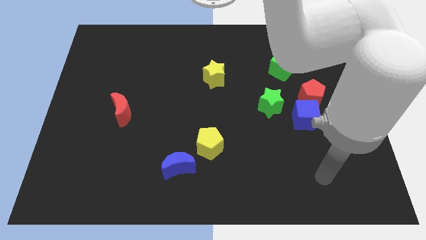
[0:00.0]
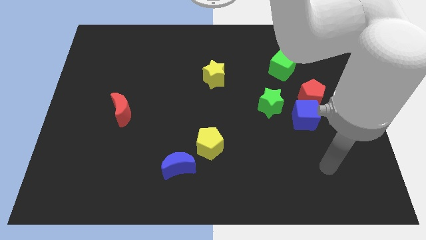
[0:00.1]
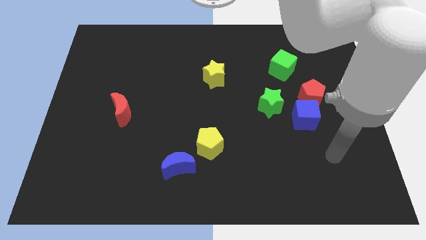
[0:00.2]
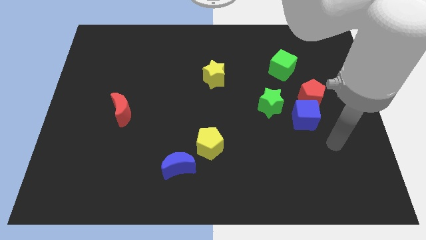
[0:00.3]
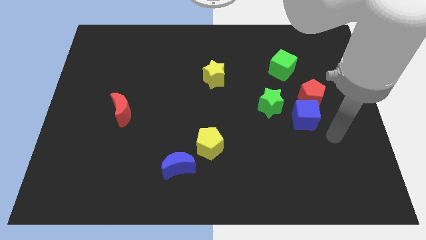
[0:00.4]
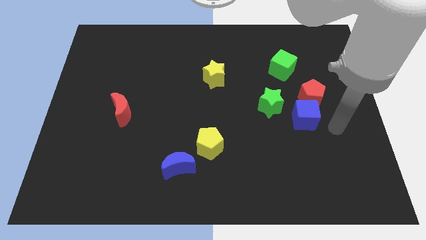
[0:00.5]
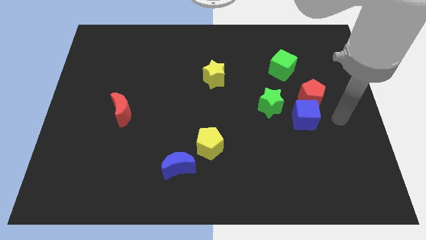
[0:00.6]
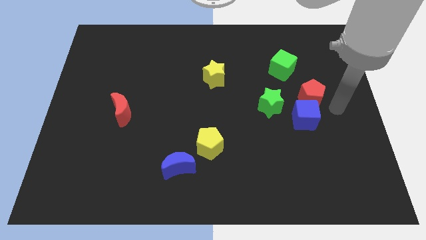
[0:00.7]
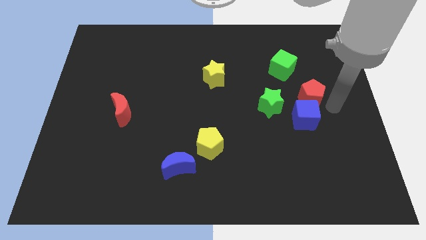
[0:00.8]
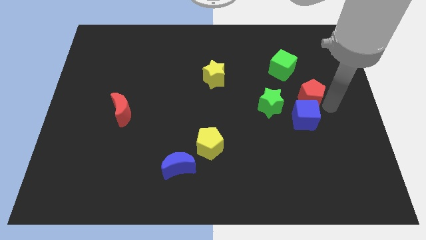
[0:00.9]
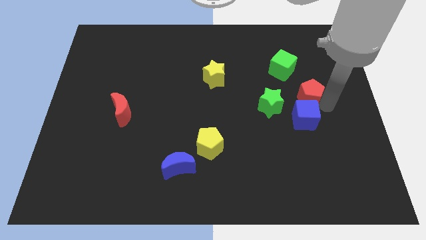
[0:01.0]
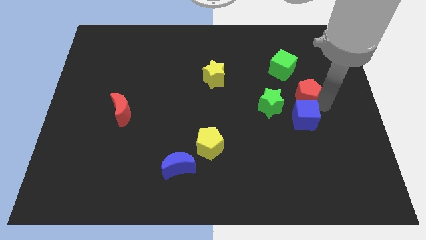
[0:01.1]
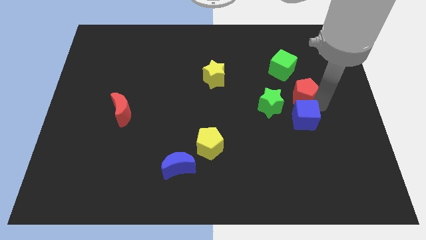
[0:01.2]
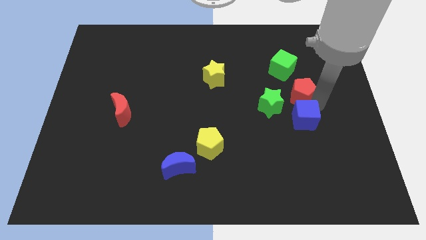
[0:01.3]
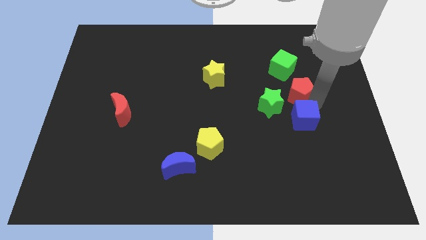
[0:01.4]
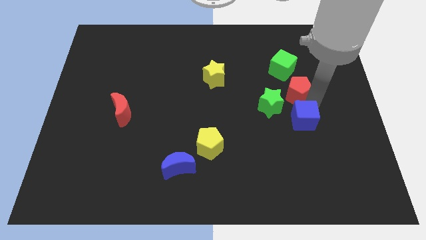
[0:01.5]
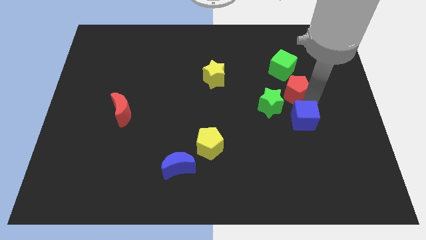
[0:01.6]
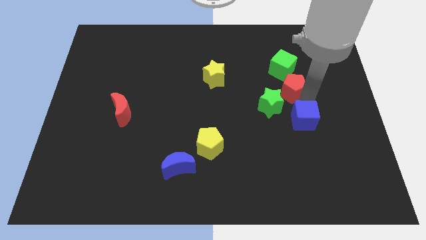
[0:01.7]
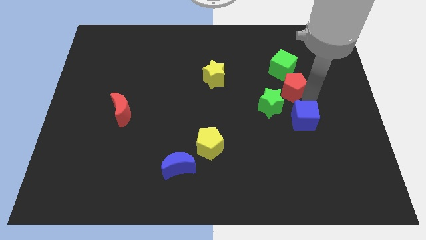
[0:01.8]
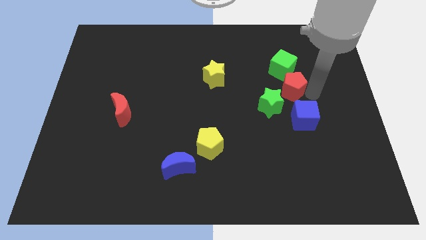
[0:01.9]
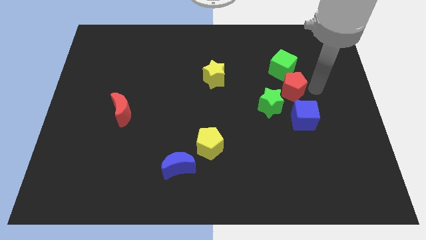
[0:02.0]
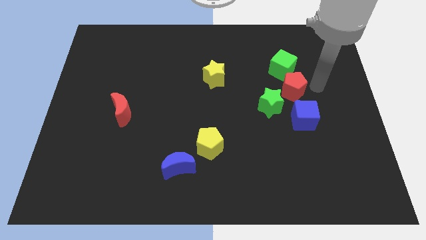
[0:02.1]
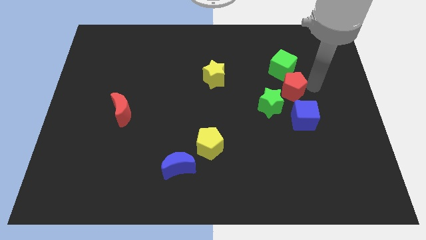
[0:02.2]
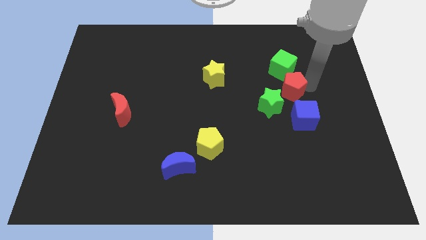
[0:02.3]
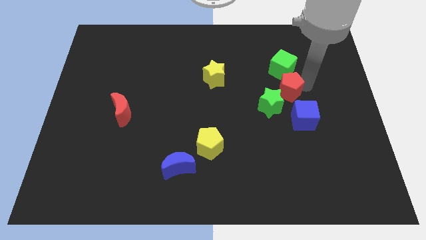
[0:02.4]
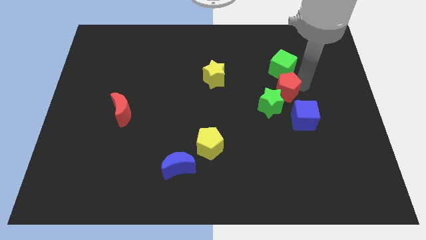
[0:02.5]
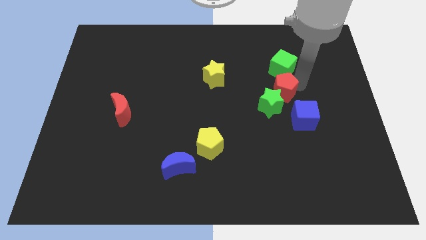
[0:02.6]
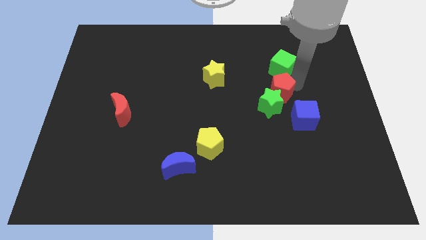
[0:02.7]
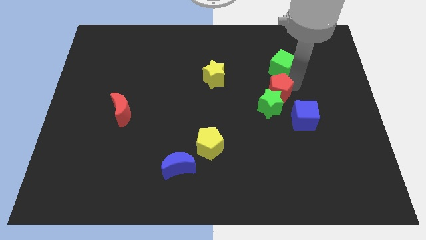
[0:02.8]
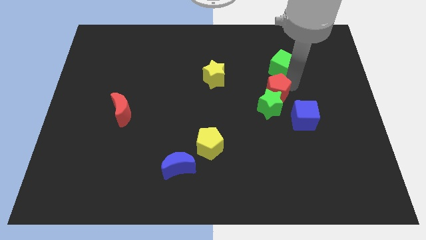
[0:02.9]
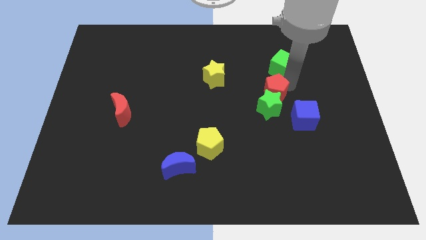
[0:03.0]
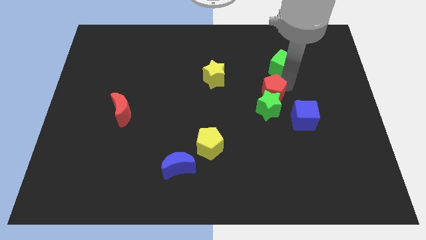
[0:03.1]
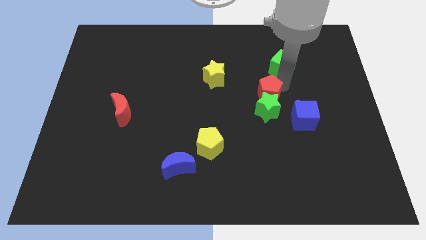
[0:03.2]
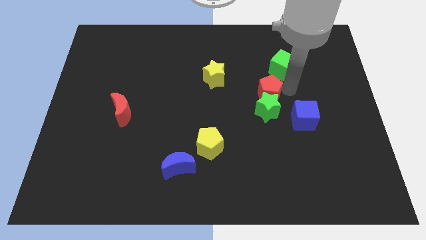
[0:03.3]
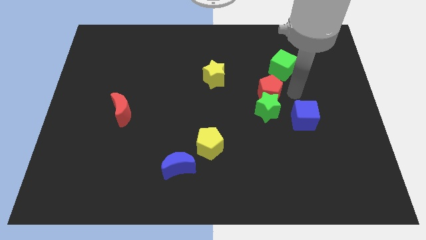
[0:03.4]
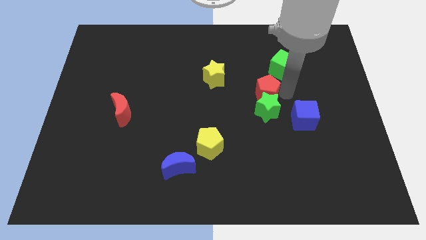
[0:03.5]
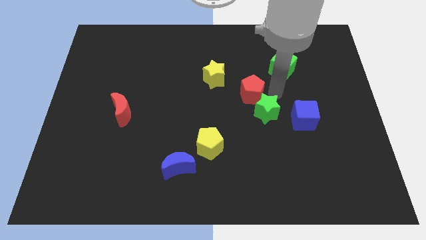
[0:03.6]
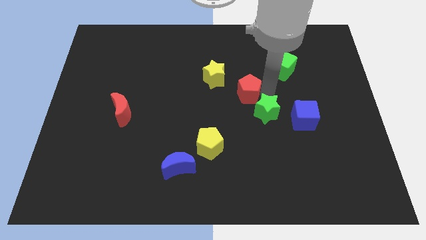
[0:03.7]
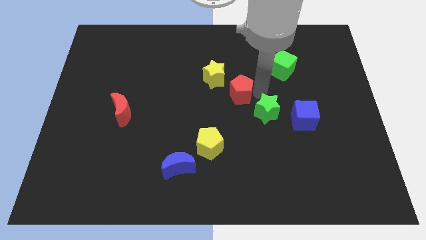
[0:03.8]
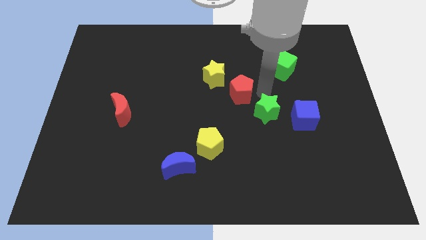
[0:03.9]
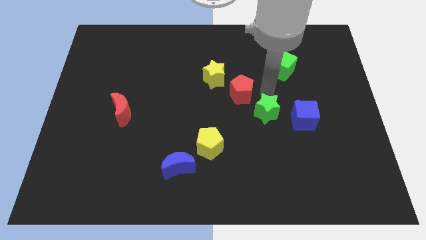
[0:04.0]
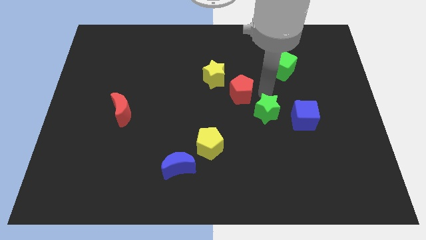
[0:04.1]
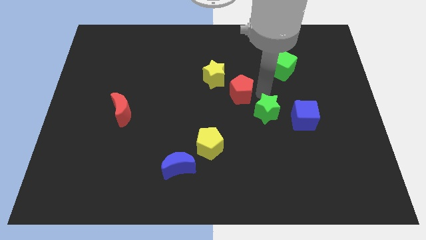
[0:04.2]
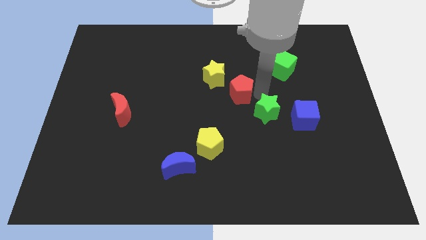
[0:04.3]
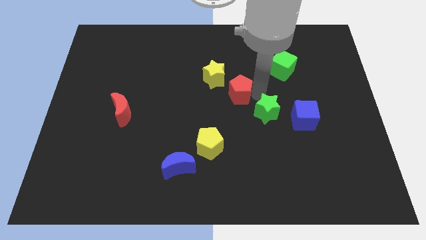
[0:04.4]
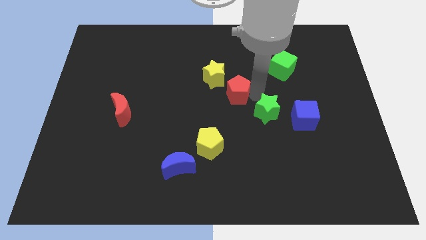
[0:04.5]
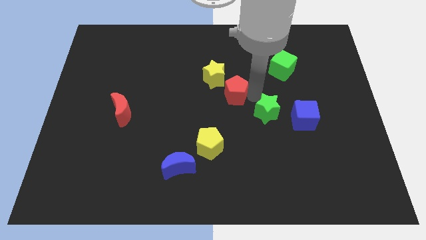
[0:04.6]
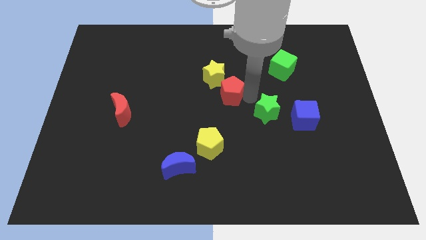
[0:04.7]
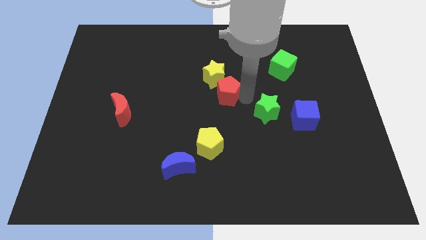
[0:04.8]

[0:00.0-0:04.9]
push the red pentagon left

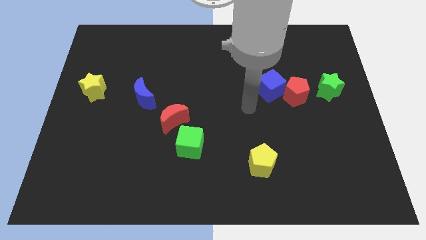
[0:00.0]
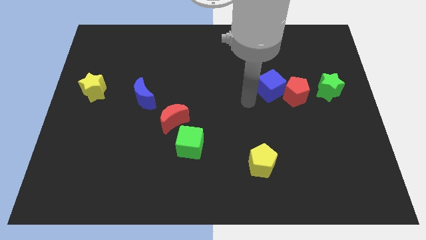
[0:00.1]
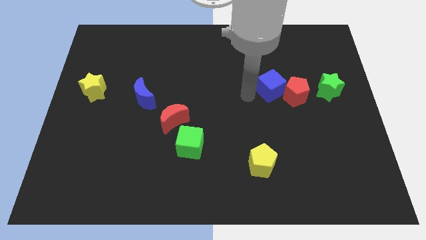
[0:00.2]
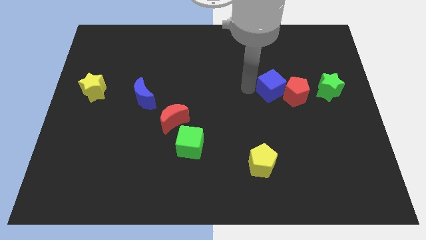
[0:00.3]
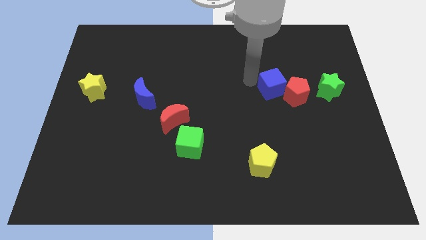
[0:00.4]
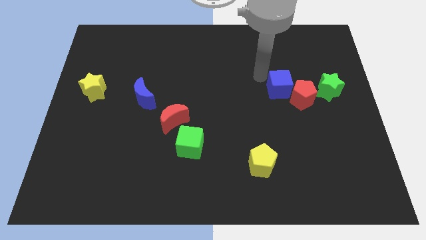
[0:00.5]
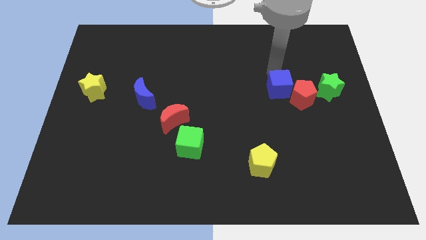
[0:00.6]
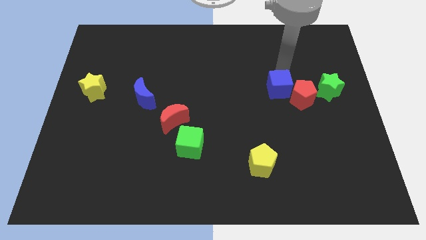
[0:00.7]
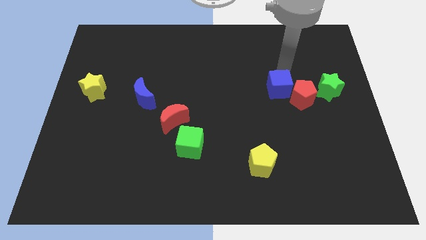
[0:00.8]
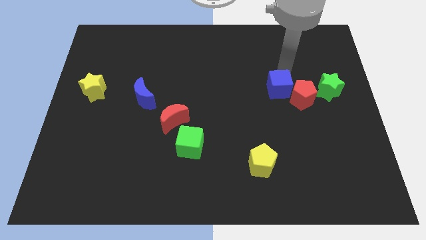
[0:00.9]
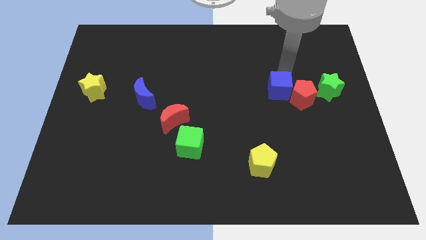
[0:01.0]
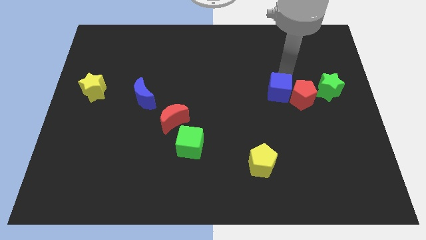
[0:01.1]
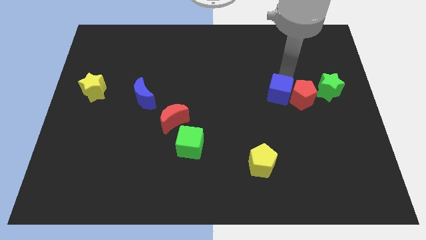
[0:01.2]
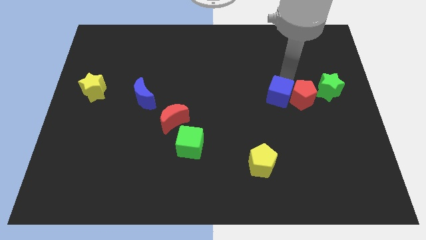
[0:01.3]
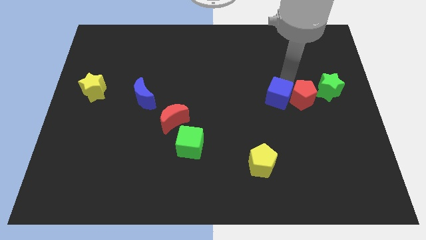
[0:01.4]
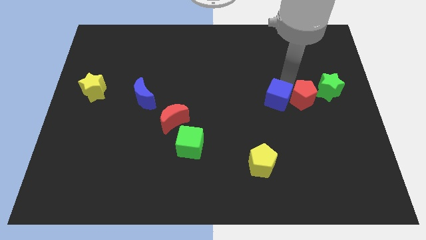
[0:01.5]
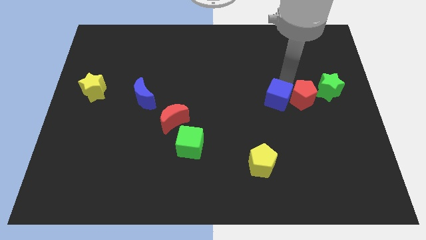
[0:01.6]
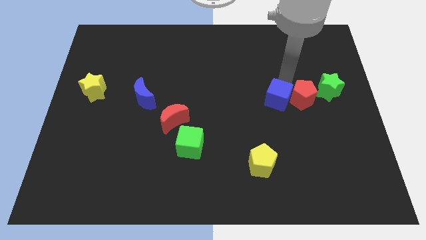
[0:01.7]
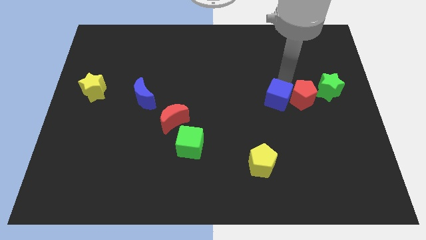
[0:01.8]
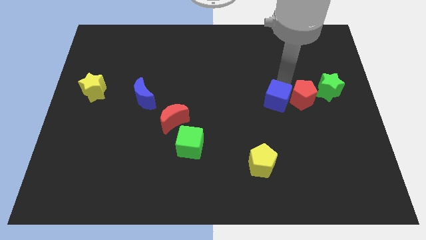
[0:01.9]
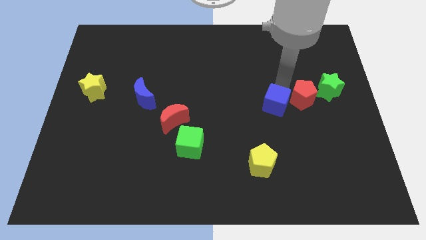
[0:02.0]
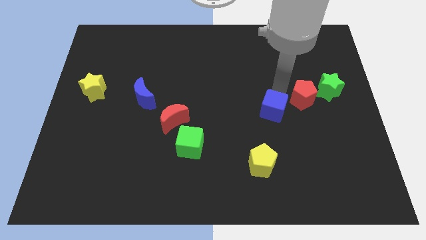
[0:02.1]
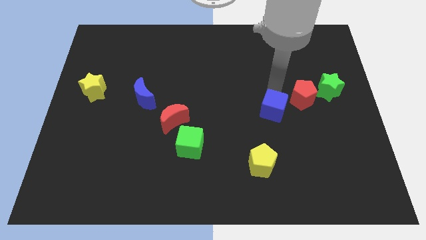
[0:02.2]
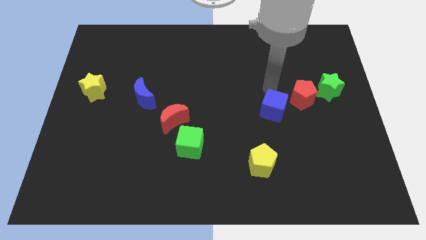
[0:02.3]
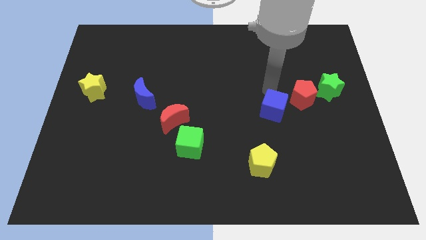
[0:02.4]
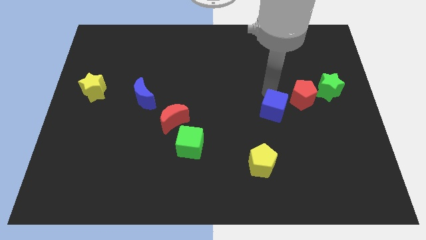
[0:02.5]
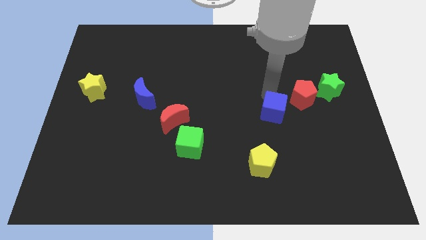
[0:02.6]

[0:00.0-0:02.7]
slightly push the blue cube downwards

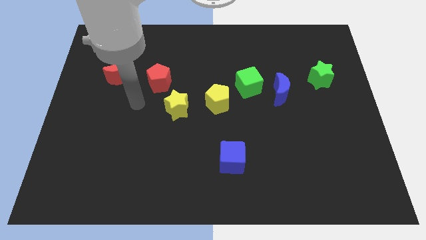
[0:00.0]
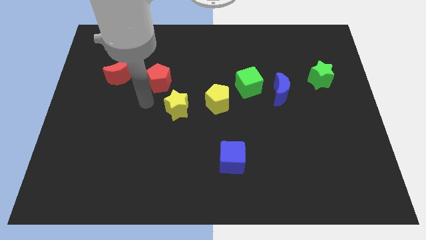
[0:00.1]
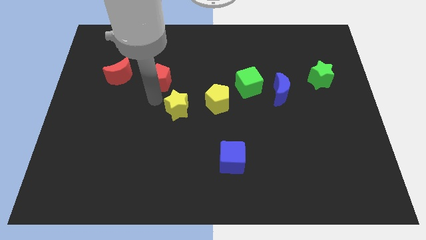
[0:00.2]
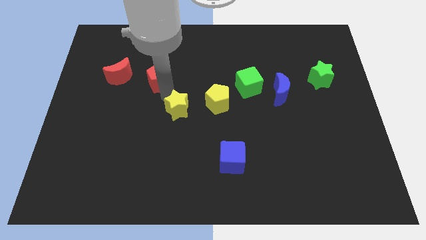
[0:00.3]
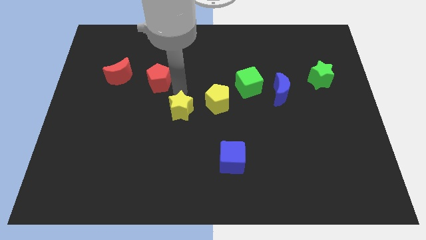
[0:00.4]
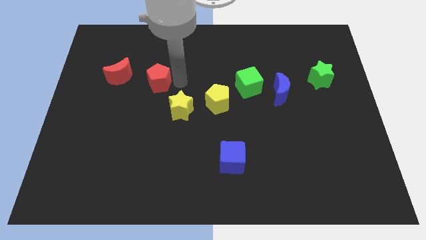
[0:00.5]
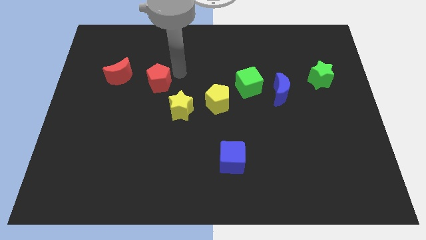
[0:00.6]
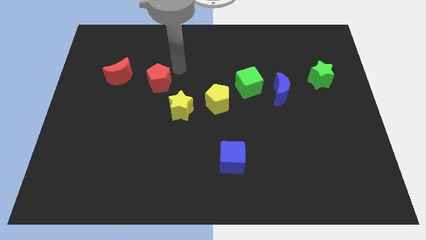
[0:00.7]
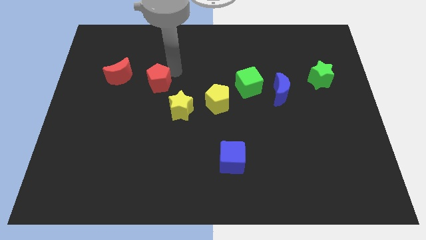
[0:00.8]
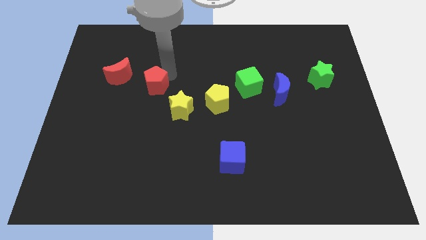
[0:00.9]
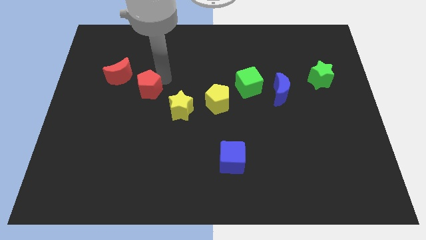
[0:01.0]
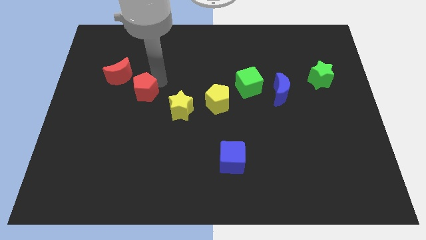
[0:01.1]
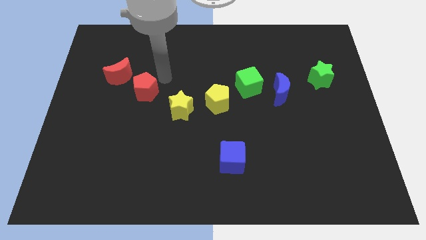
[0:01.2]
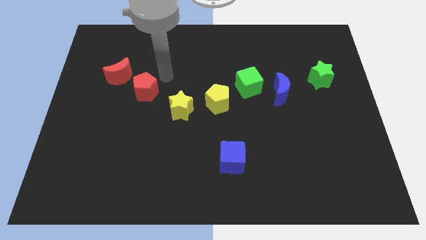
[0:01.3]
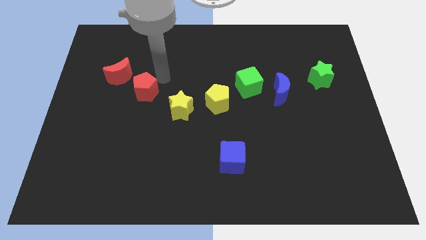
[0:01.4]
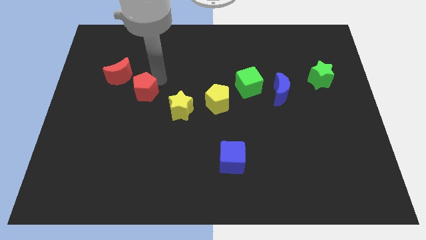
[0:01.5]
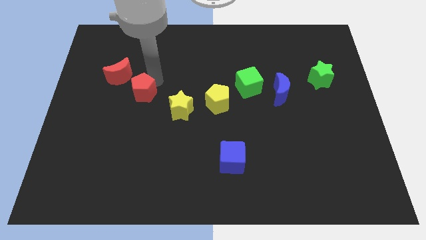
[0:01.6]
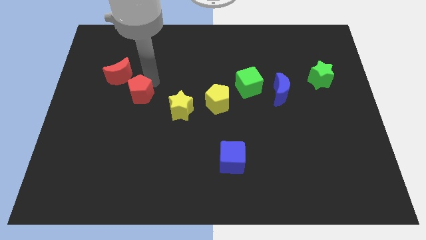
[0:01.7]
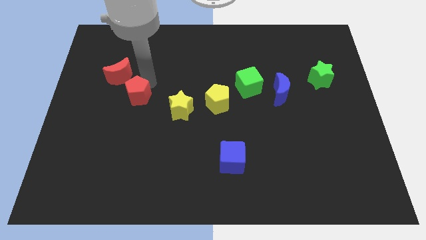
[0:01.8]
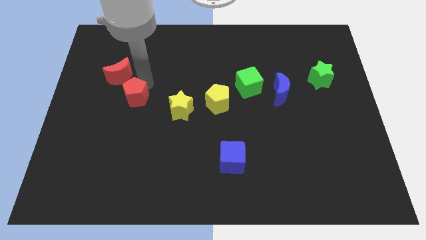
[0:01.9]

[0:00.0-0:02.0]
slide the red pentagon diagonally downwards and left a little
